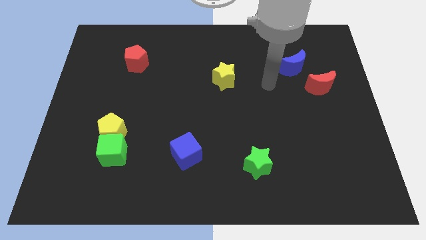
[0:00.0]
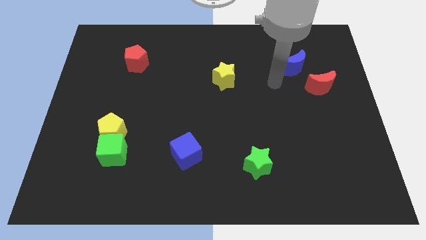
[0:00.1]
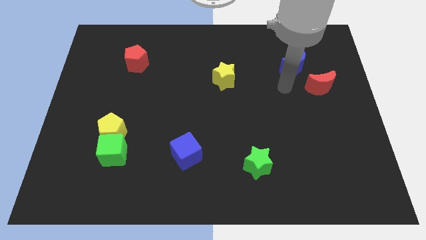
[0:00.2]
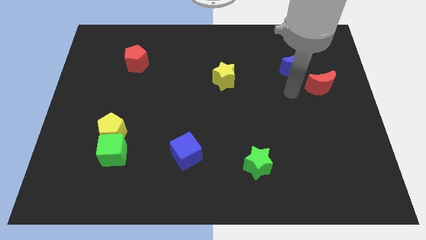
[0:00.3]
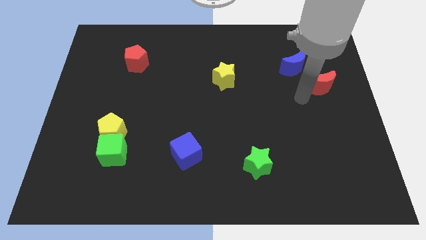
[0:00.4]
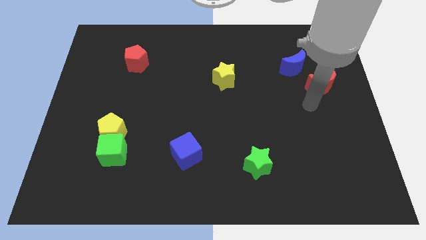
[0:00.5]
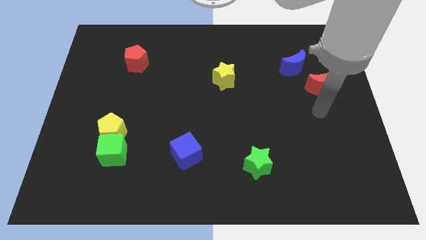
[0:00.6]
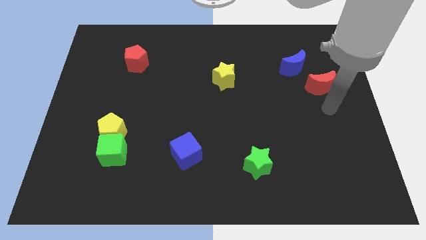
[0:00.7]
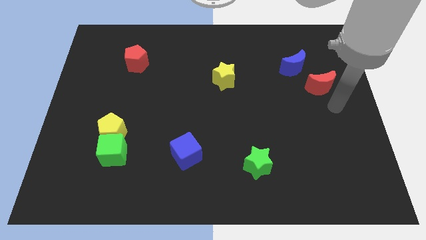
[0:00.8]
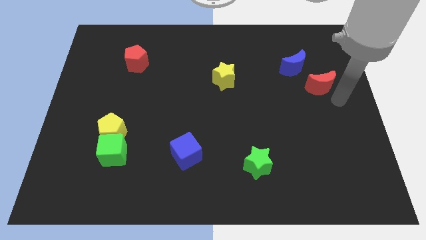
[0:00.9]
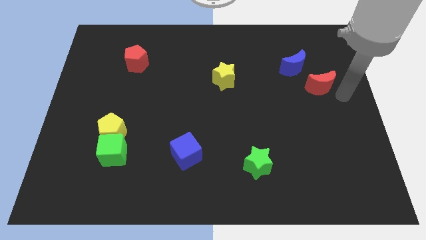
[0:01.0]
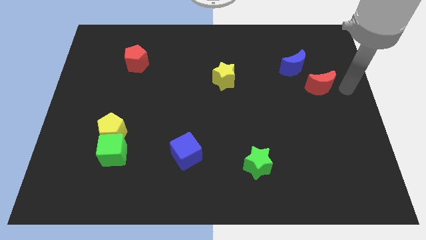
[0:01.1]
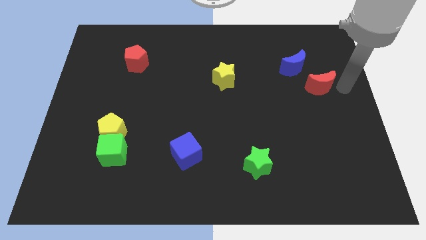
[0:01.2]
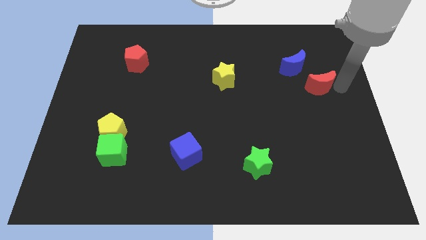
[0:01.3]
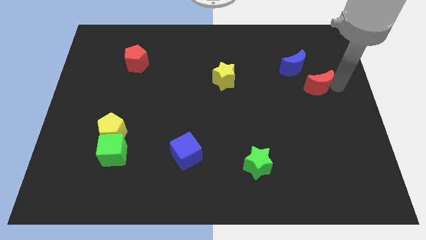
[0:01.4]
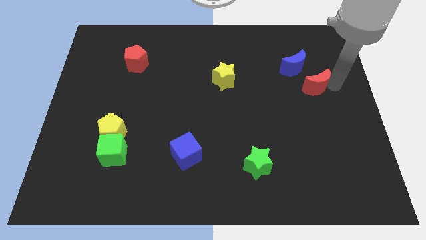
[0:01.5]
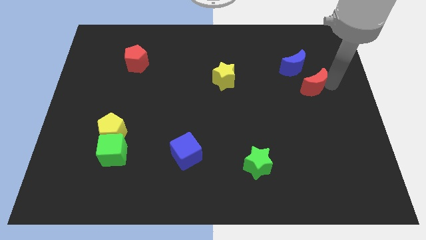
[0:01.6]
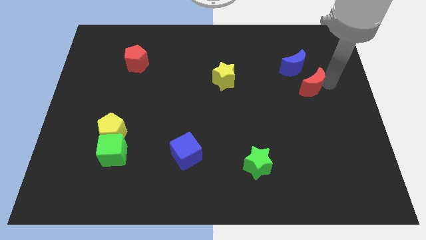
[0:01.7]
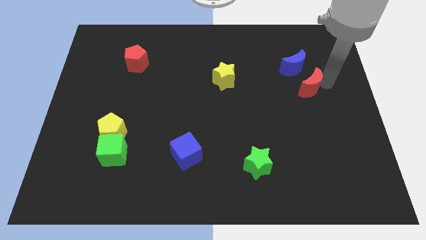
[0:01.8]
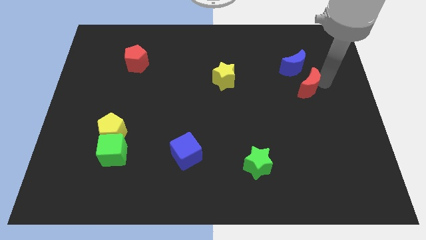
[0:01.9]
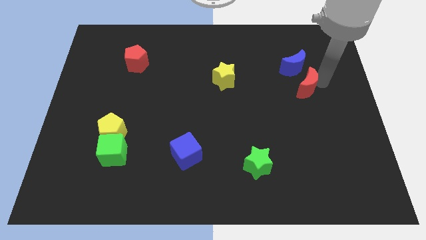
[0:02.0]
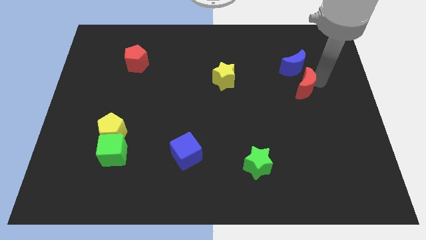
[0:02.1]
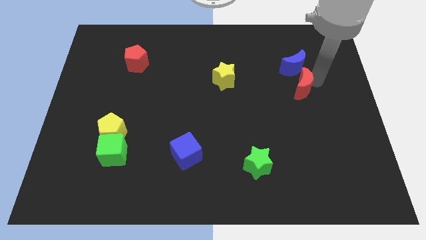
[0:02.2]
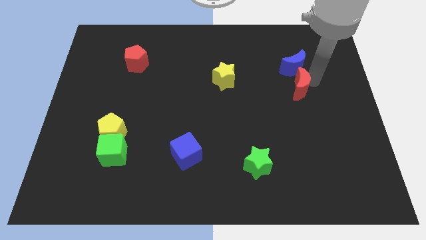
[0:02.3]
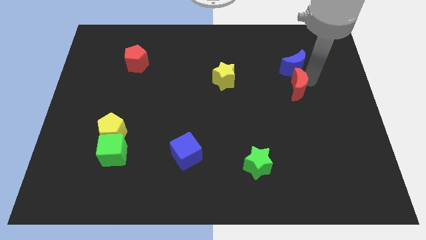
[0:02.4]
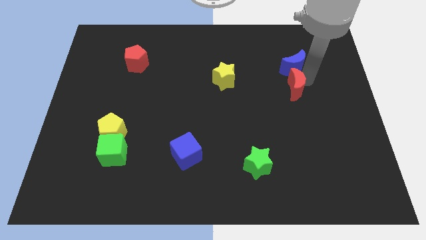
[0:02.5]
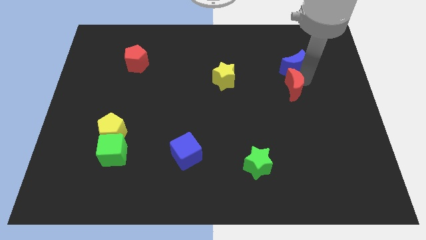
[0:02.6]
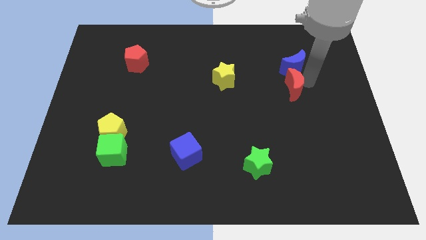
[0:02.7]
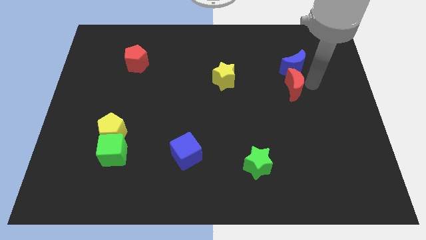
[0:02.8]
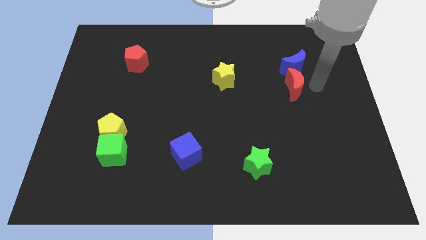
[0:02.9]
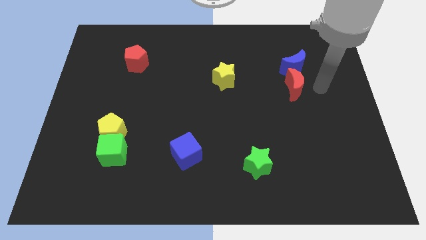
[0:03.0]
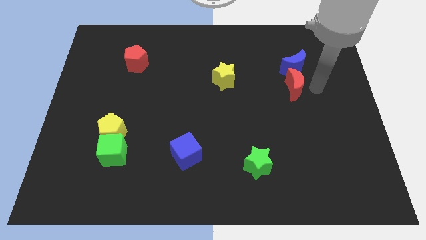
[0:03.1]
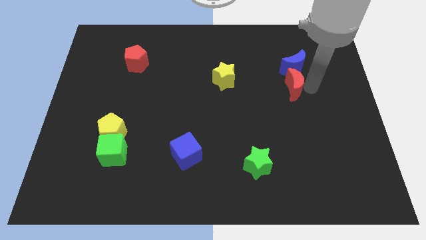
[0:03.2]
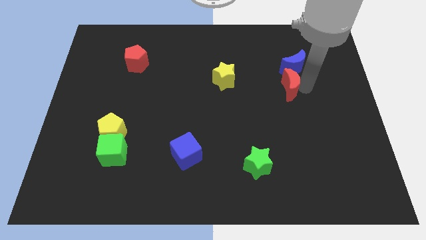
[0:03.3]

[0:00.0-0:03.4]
slightly move the red moon left

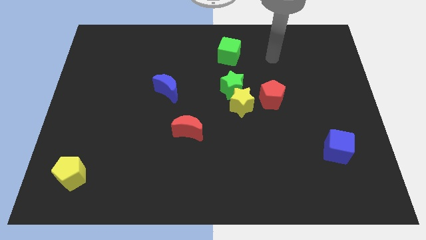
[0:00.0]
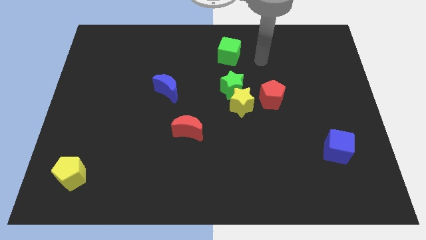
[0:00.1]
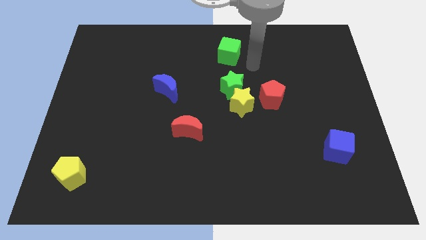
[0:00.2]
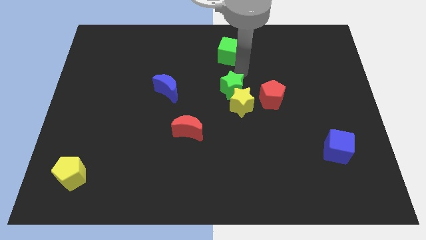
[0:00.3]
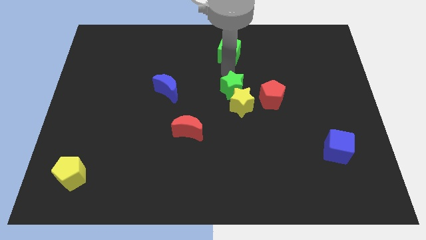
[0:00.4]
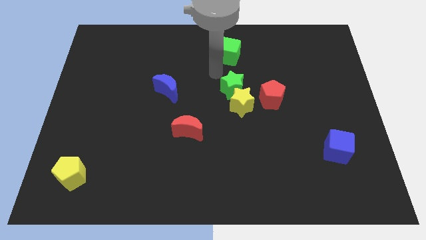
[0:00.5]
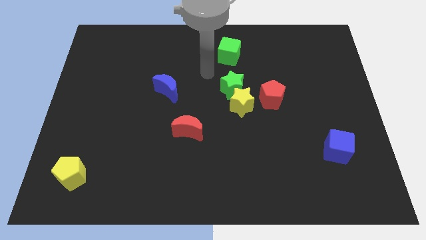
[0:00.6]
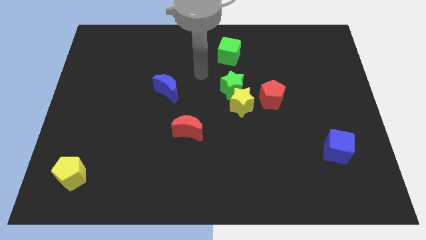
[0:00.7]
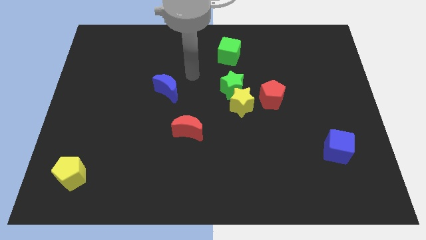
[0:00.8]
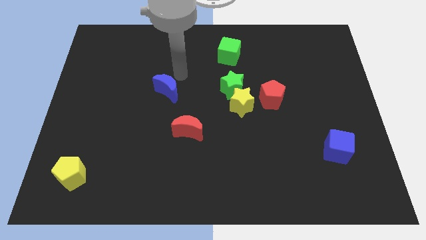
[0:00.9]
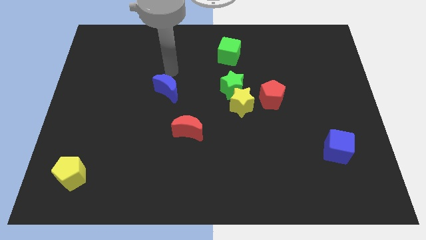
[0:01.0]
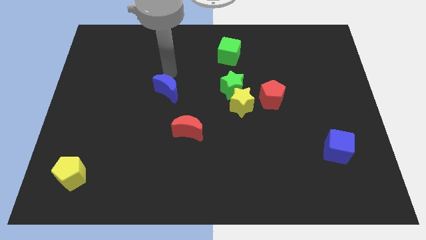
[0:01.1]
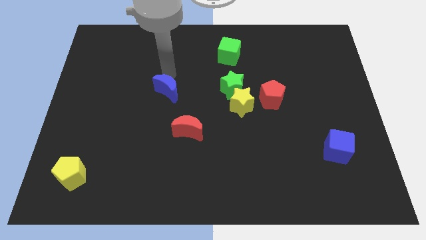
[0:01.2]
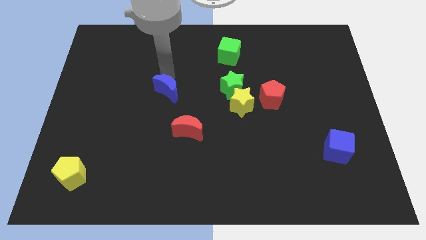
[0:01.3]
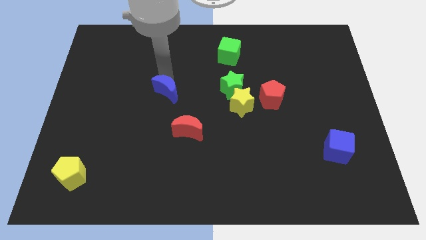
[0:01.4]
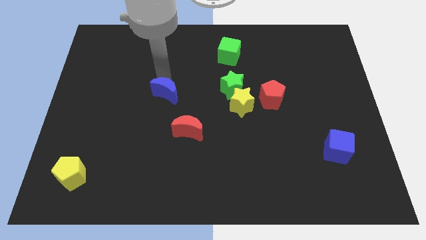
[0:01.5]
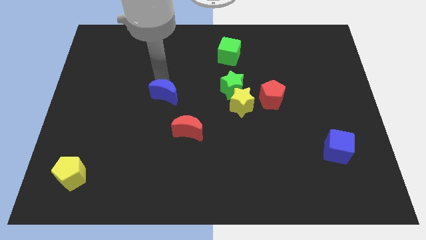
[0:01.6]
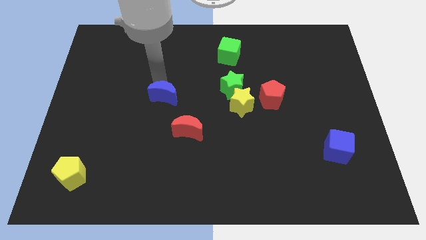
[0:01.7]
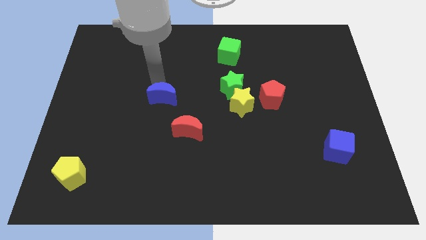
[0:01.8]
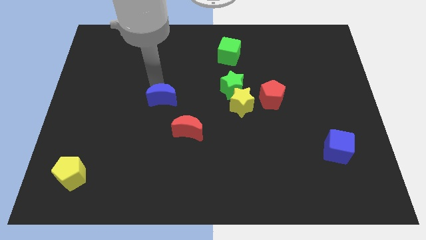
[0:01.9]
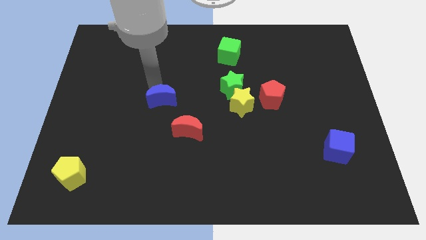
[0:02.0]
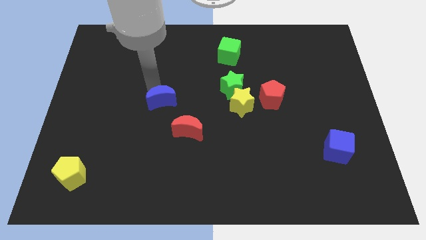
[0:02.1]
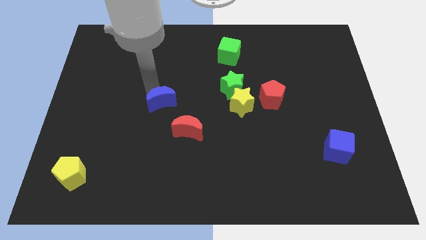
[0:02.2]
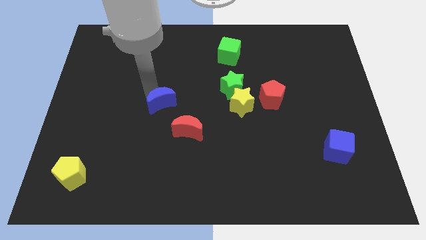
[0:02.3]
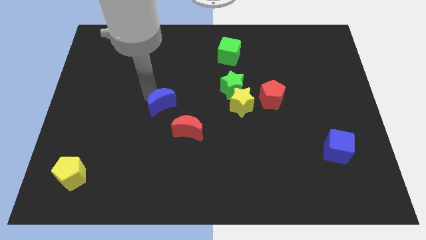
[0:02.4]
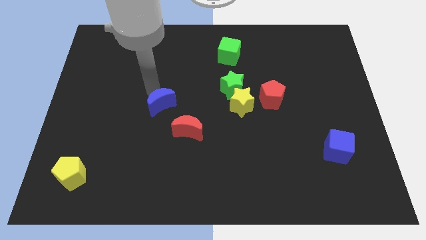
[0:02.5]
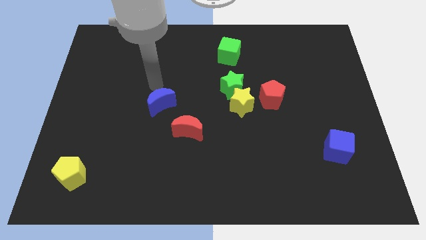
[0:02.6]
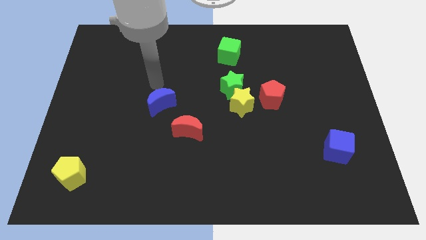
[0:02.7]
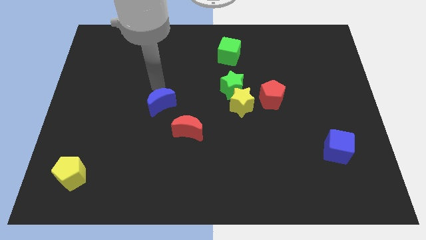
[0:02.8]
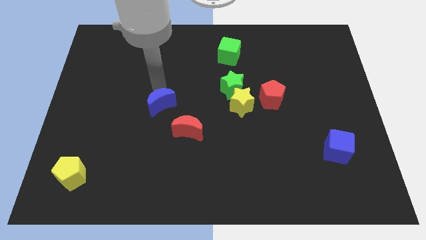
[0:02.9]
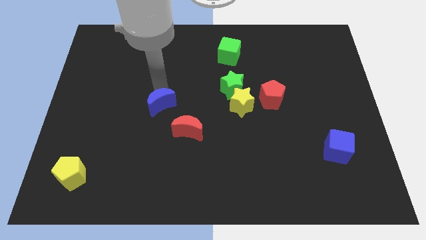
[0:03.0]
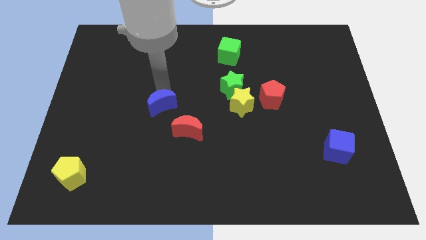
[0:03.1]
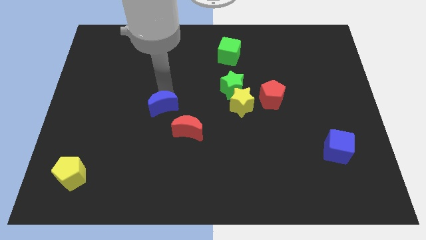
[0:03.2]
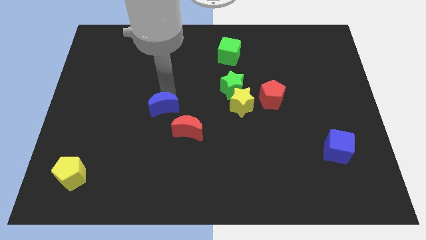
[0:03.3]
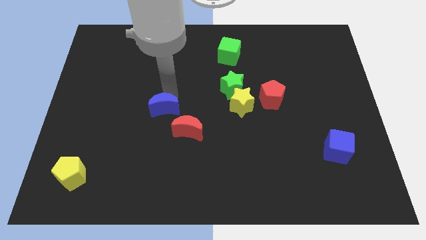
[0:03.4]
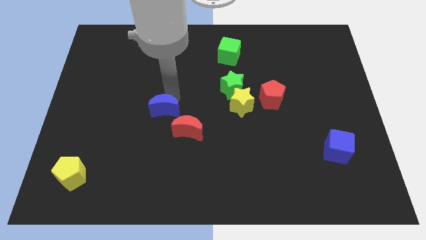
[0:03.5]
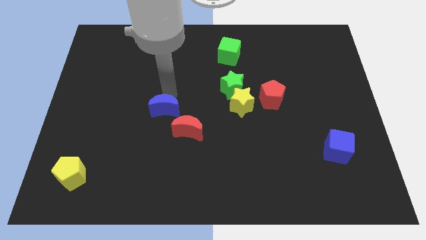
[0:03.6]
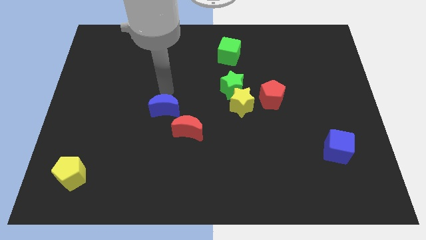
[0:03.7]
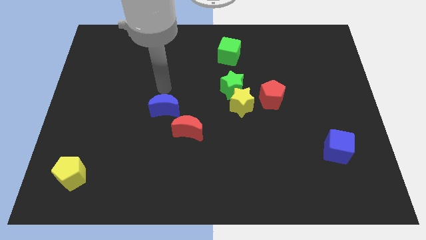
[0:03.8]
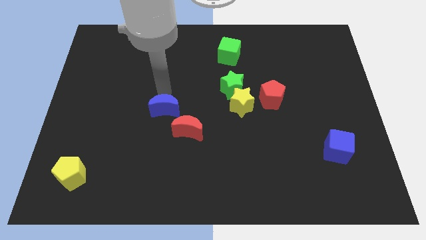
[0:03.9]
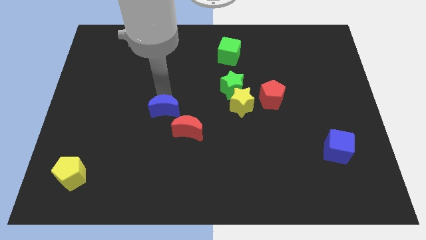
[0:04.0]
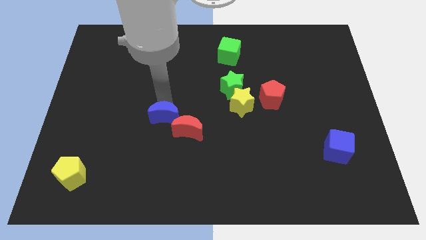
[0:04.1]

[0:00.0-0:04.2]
push the blue moon somewhat down

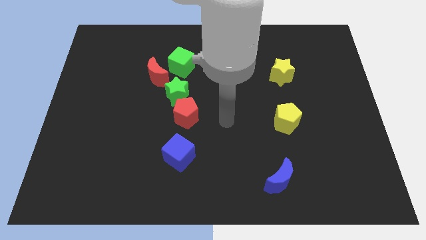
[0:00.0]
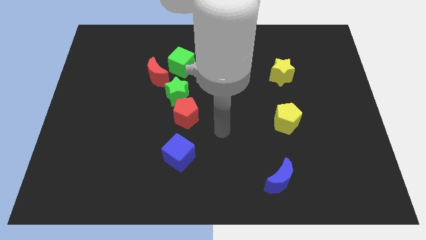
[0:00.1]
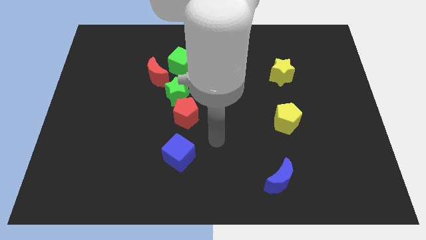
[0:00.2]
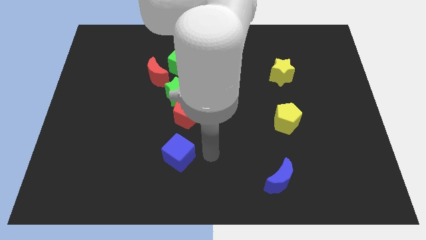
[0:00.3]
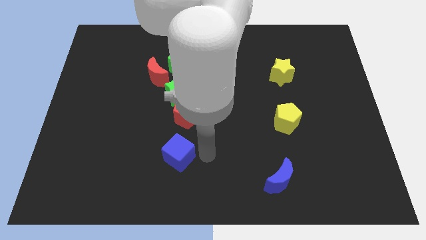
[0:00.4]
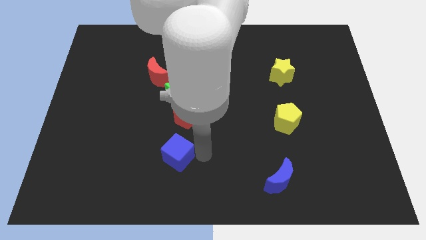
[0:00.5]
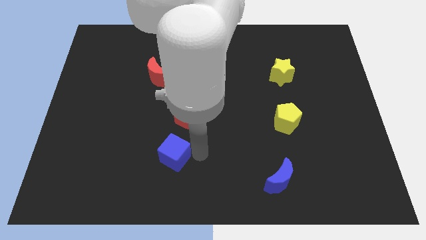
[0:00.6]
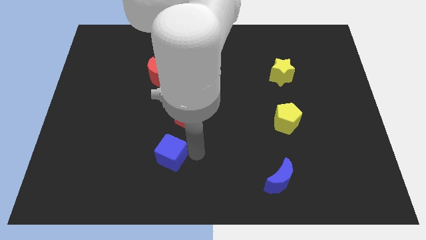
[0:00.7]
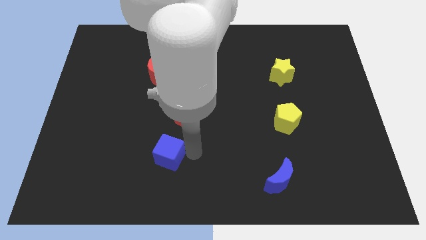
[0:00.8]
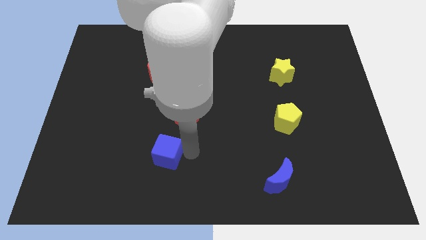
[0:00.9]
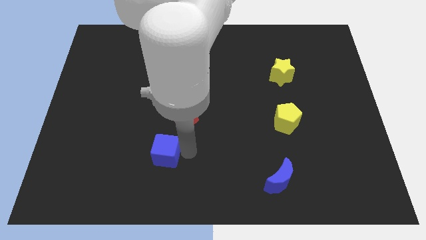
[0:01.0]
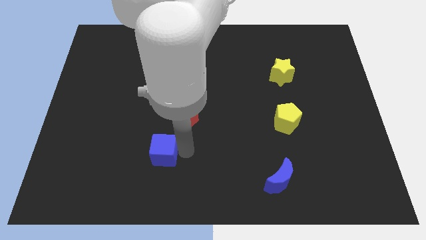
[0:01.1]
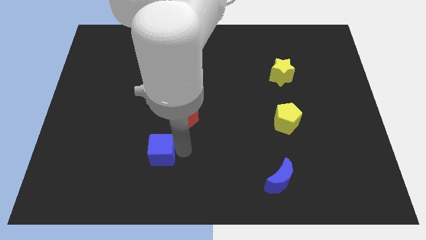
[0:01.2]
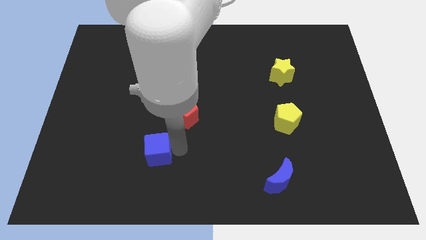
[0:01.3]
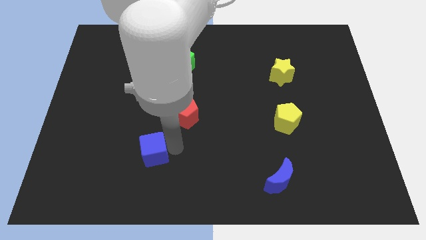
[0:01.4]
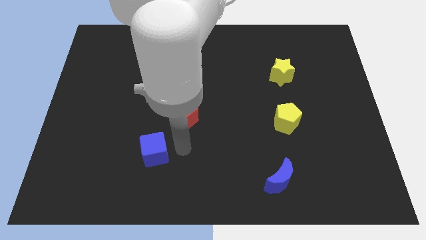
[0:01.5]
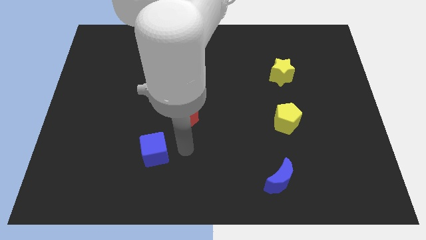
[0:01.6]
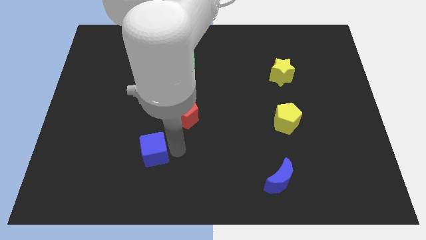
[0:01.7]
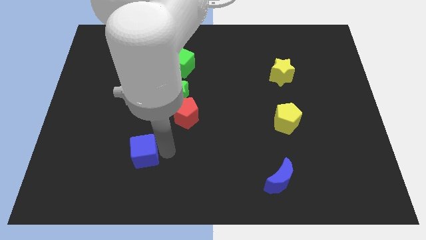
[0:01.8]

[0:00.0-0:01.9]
slide the blue cube slightly to the left
